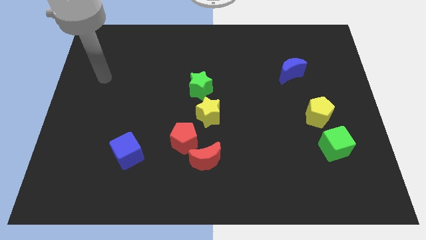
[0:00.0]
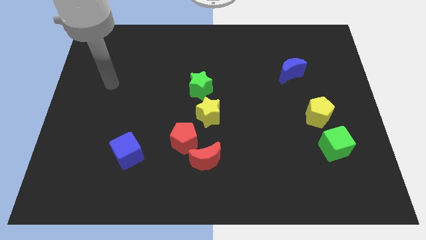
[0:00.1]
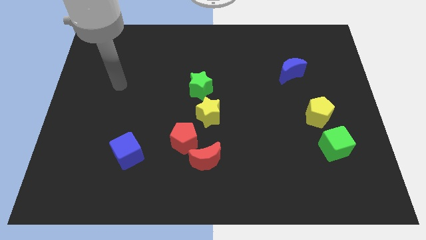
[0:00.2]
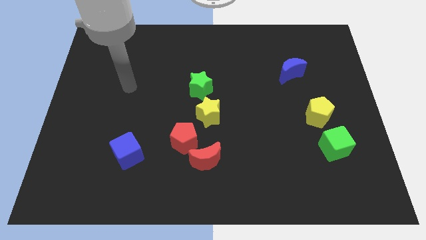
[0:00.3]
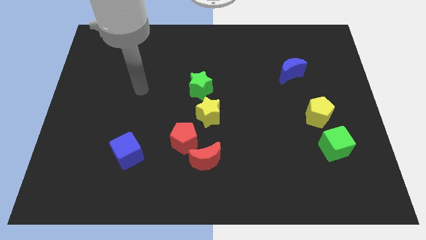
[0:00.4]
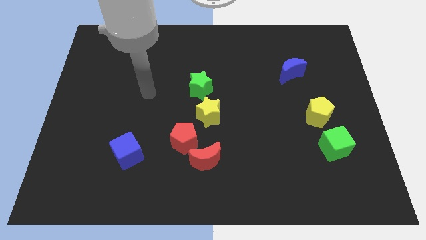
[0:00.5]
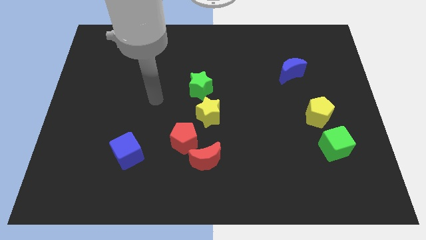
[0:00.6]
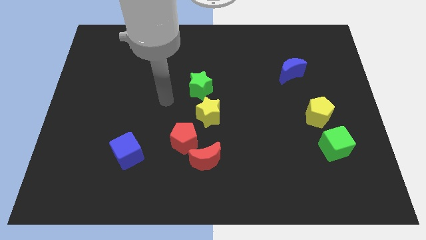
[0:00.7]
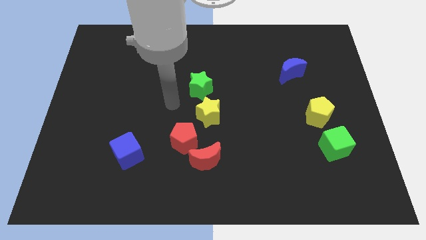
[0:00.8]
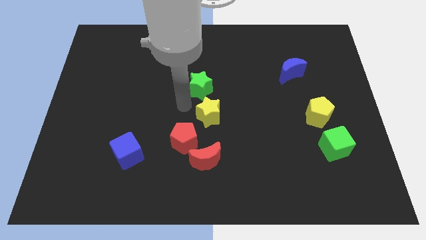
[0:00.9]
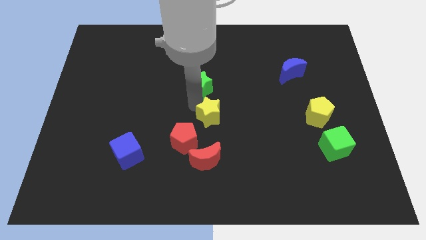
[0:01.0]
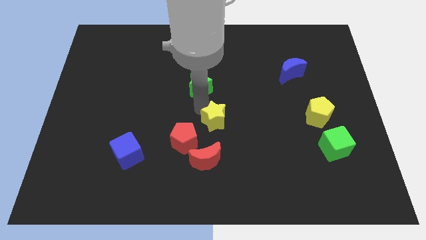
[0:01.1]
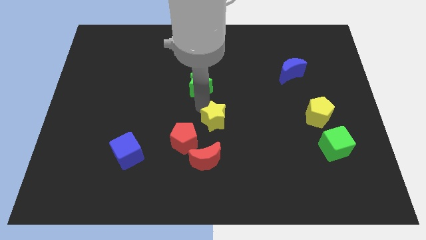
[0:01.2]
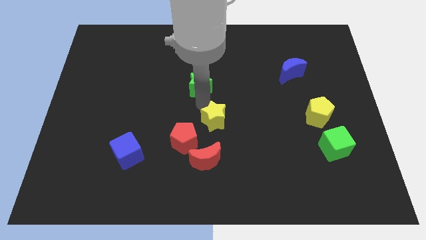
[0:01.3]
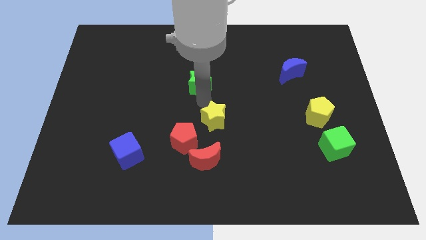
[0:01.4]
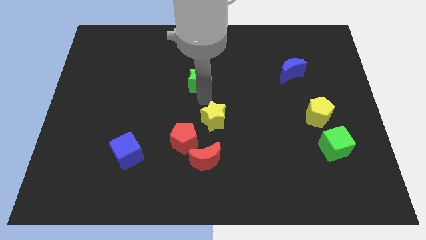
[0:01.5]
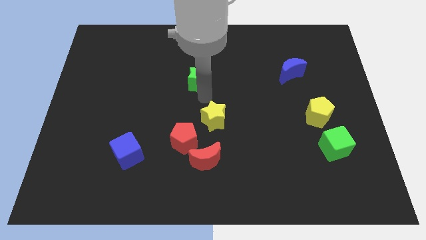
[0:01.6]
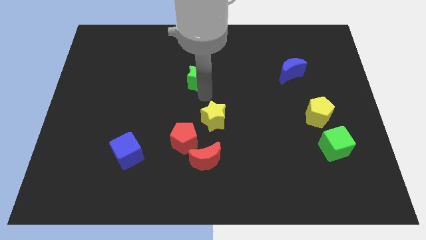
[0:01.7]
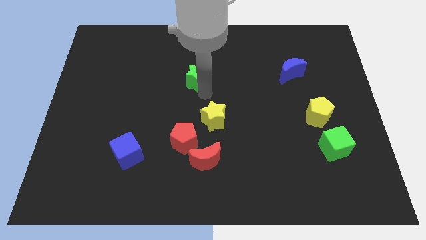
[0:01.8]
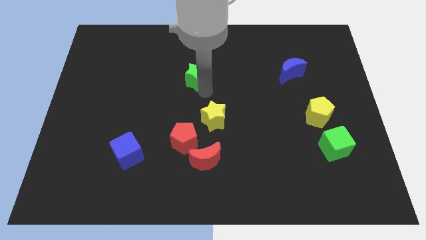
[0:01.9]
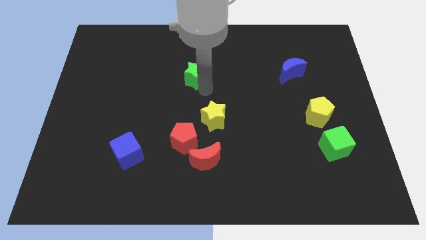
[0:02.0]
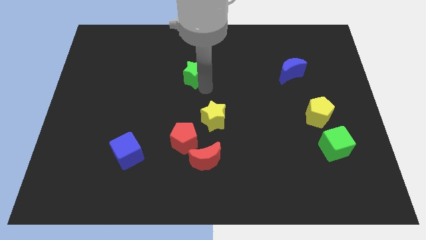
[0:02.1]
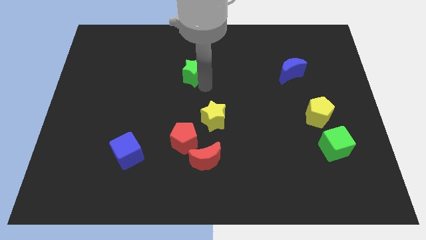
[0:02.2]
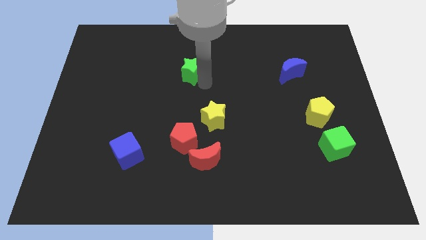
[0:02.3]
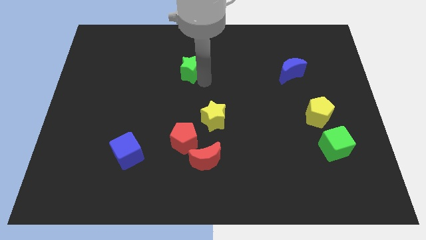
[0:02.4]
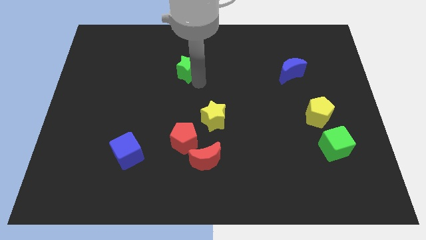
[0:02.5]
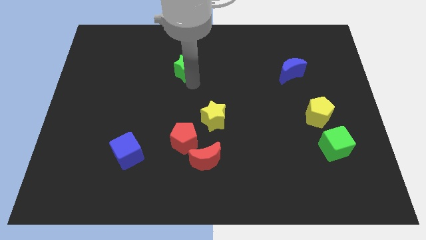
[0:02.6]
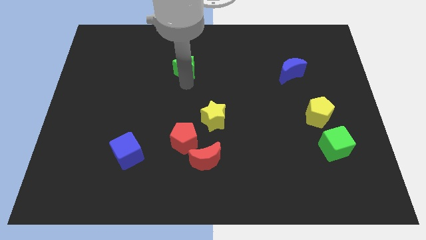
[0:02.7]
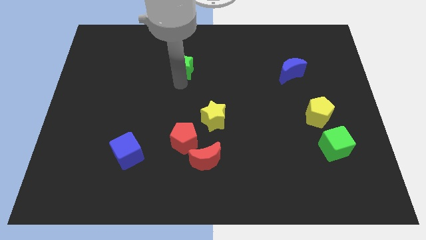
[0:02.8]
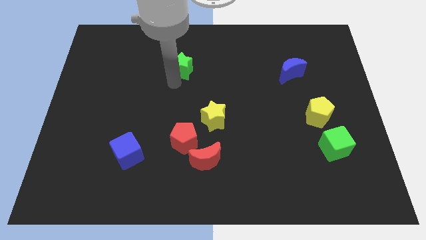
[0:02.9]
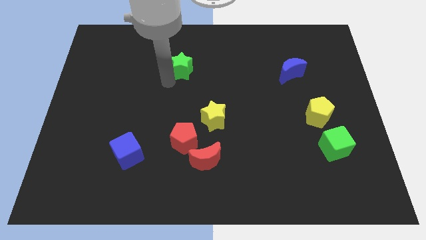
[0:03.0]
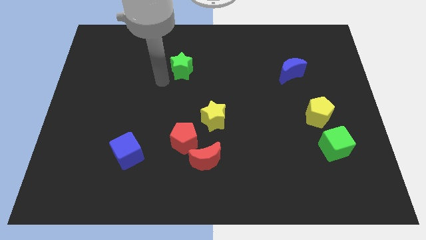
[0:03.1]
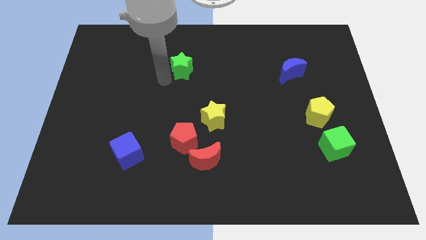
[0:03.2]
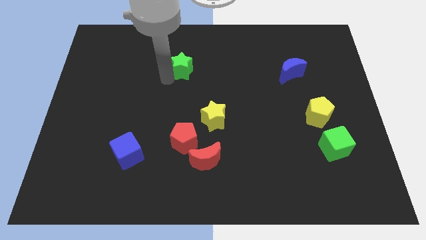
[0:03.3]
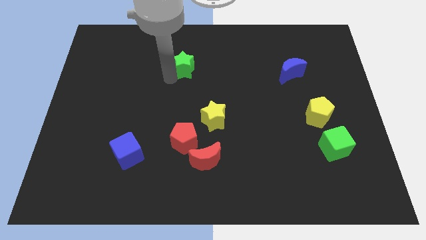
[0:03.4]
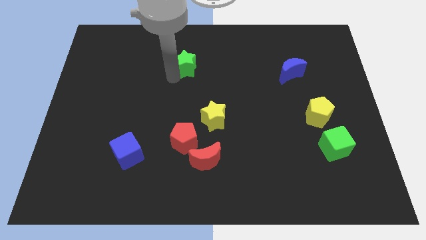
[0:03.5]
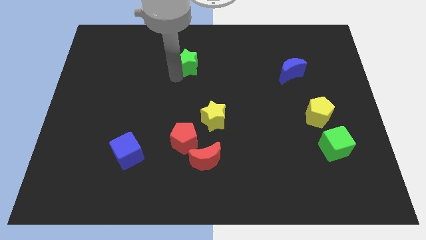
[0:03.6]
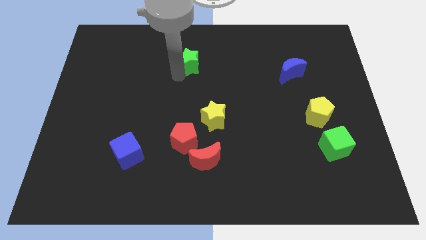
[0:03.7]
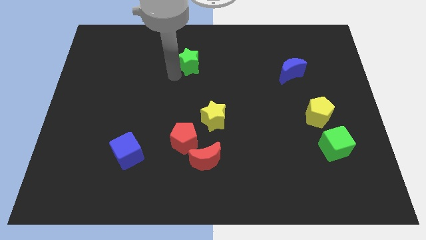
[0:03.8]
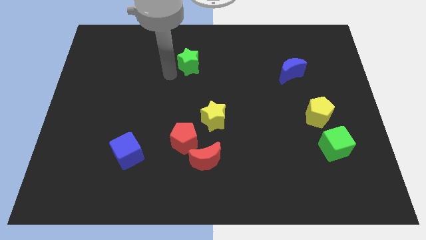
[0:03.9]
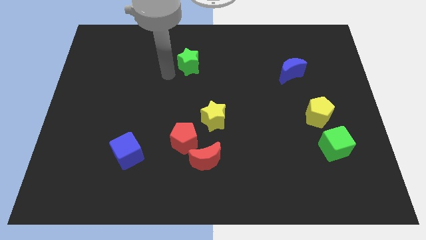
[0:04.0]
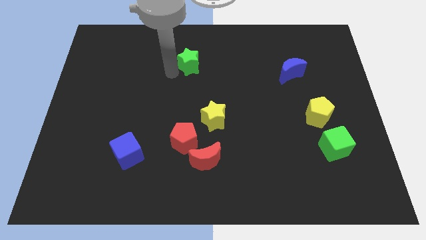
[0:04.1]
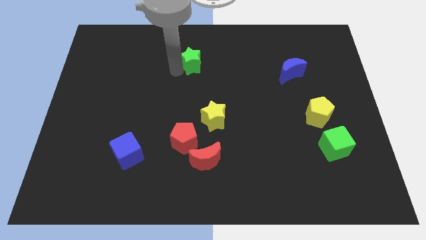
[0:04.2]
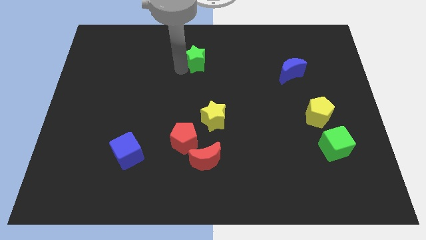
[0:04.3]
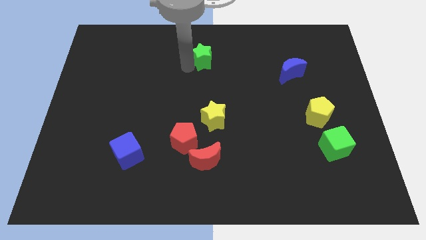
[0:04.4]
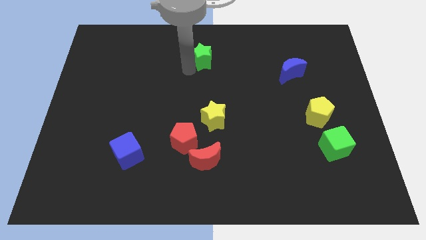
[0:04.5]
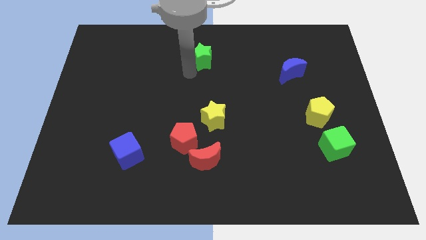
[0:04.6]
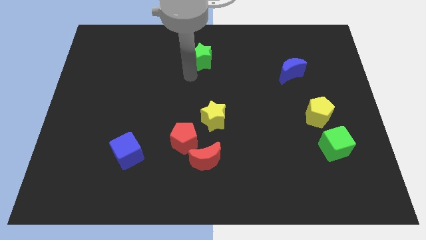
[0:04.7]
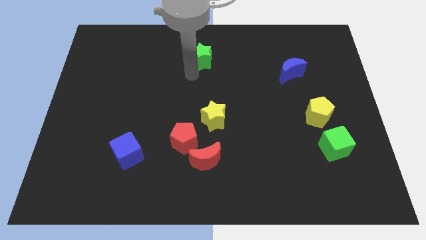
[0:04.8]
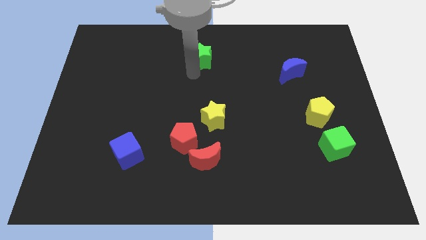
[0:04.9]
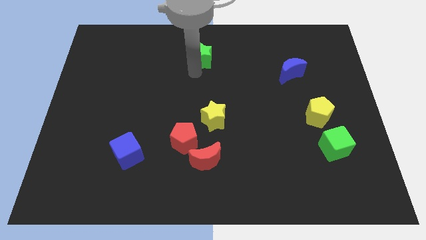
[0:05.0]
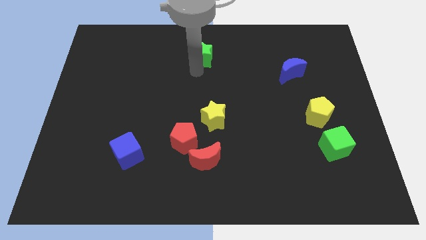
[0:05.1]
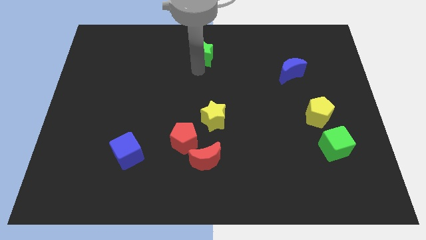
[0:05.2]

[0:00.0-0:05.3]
put the green star to the top

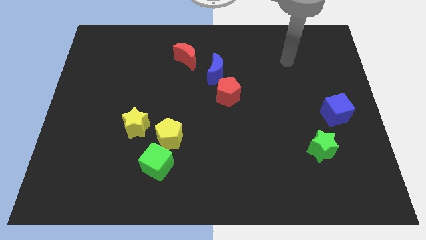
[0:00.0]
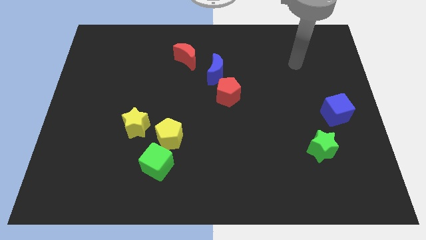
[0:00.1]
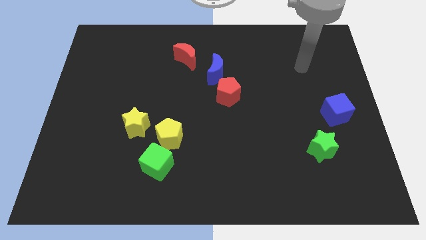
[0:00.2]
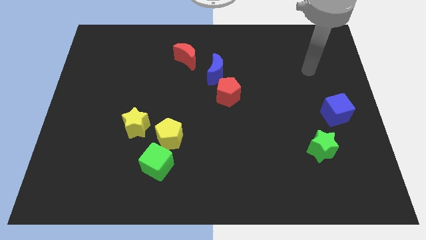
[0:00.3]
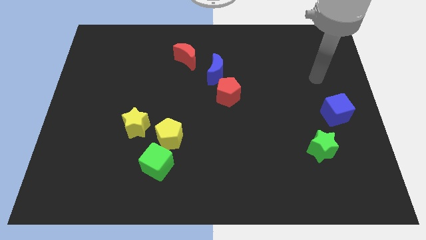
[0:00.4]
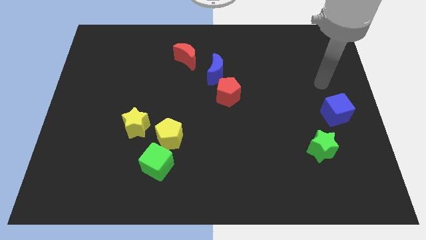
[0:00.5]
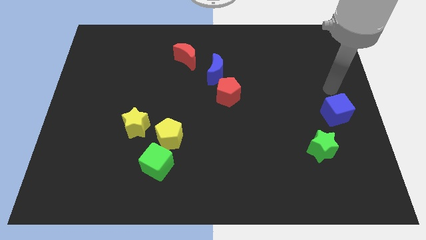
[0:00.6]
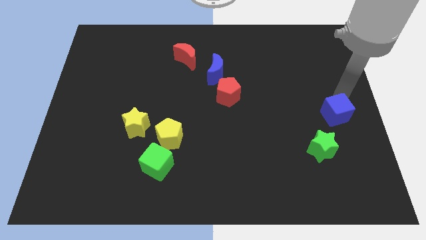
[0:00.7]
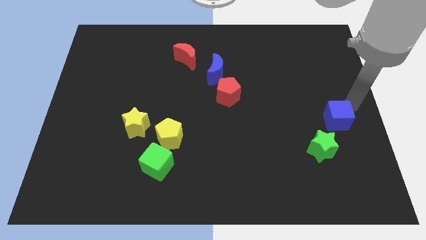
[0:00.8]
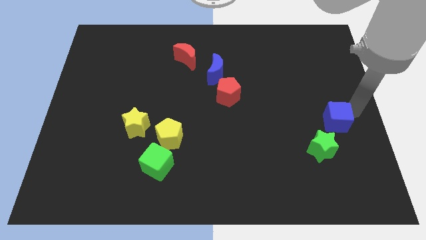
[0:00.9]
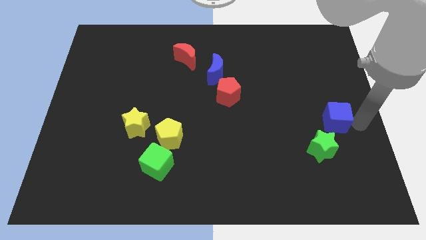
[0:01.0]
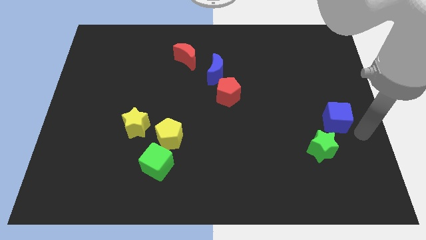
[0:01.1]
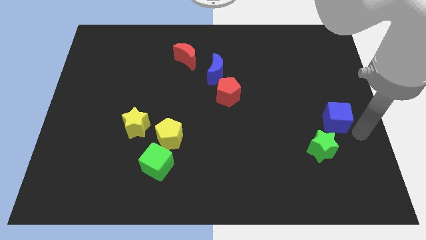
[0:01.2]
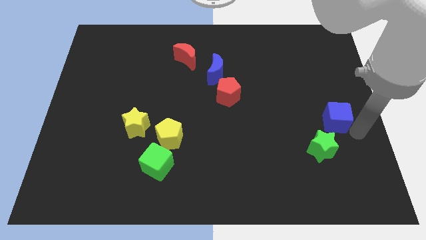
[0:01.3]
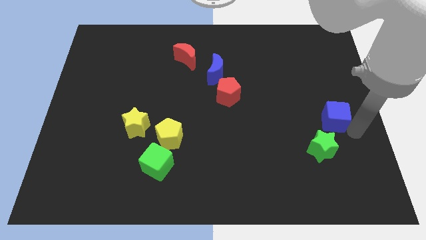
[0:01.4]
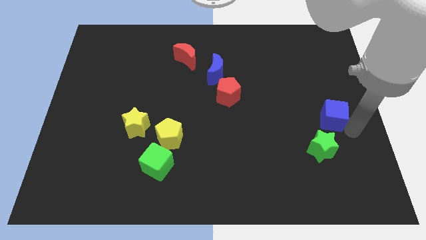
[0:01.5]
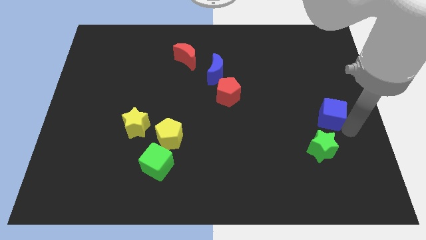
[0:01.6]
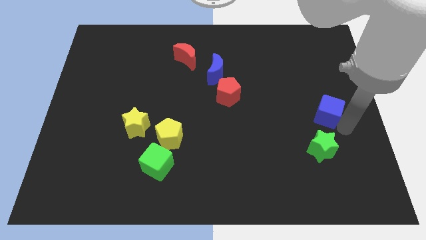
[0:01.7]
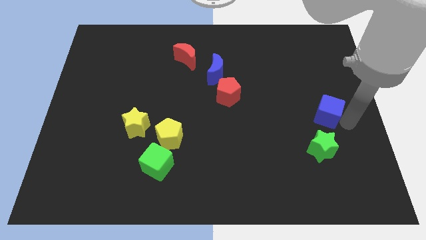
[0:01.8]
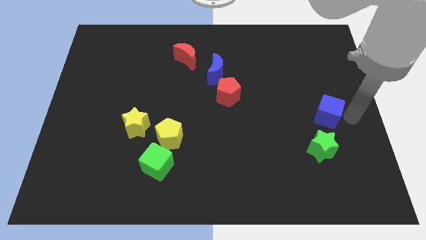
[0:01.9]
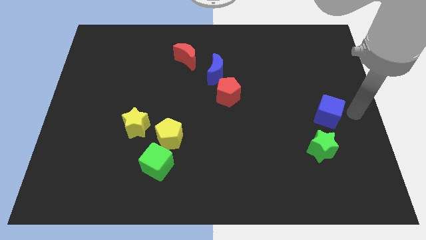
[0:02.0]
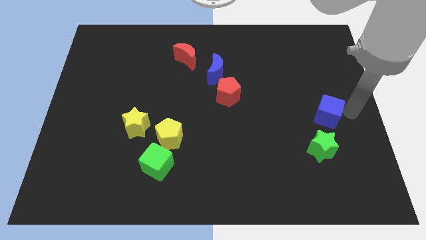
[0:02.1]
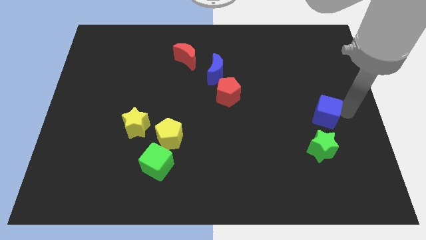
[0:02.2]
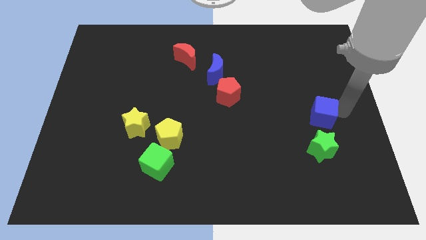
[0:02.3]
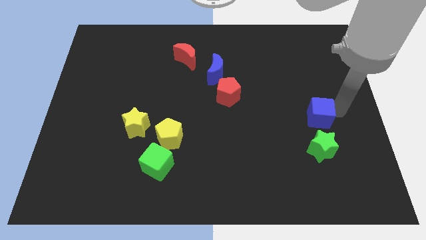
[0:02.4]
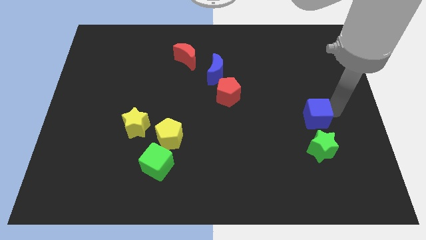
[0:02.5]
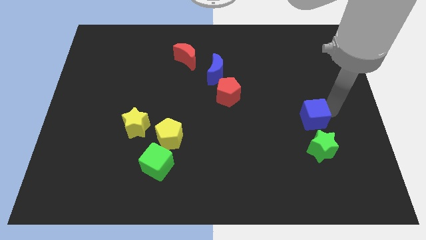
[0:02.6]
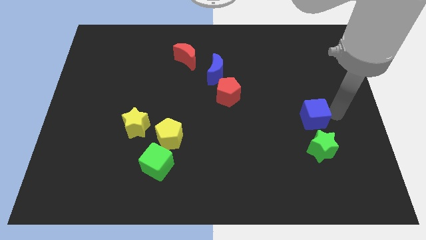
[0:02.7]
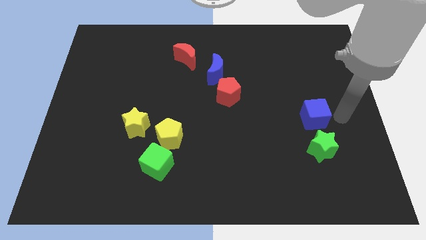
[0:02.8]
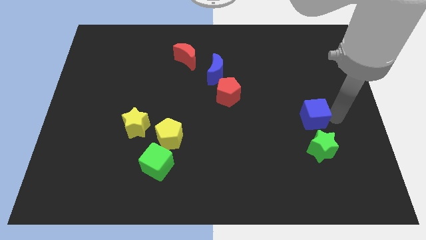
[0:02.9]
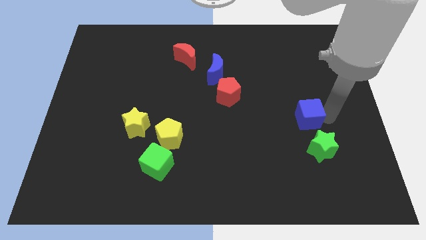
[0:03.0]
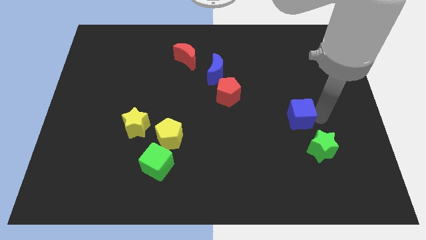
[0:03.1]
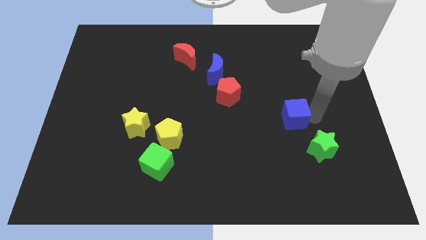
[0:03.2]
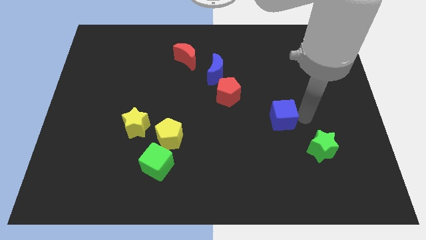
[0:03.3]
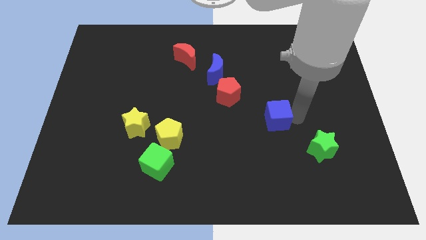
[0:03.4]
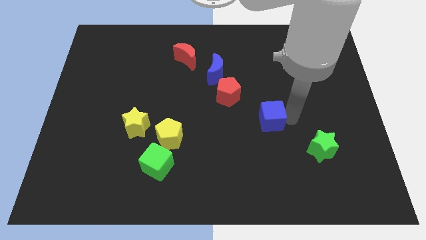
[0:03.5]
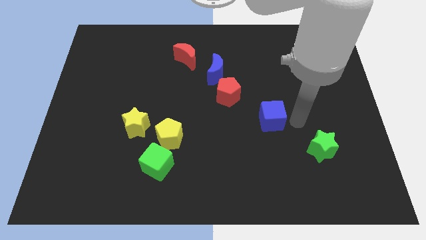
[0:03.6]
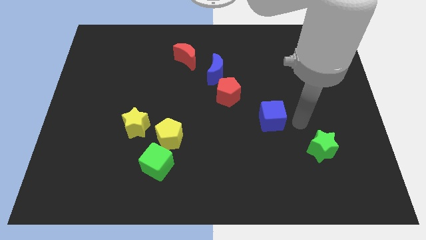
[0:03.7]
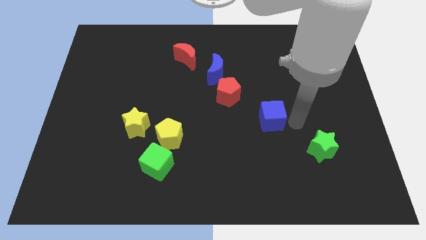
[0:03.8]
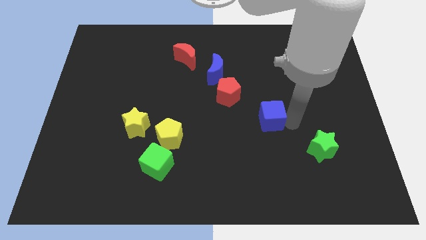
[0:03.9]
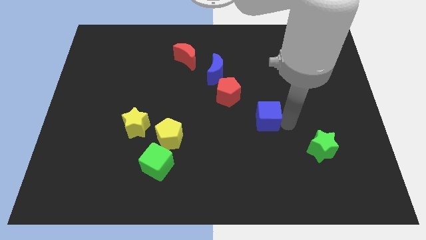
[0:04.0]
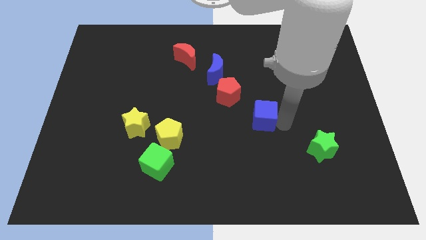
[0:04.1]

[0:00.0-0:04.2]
push the blue cube to the center
